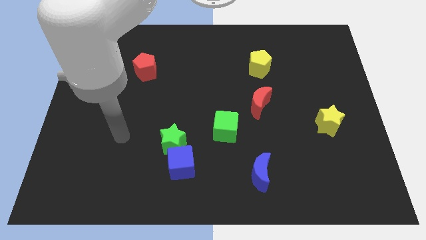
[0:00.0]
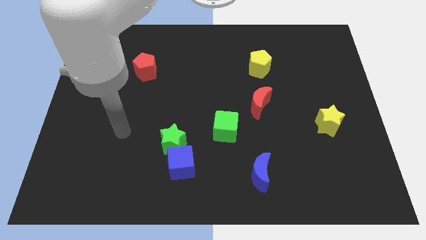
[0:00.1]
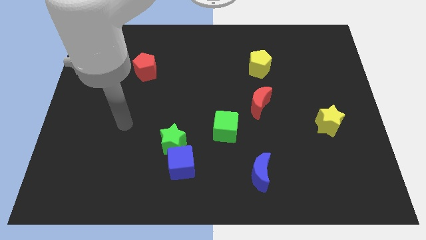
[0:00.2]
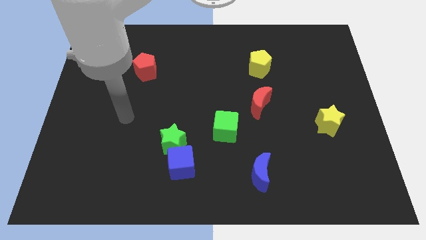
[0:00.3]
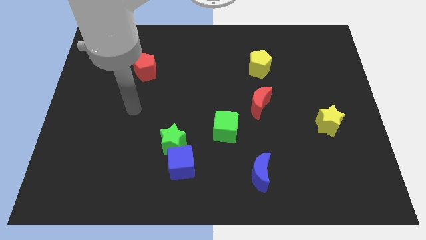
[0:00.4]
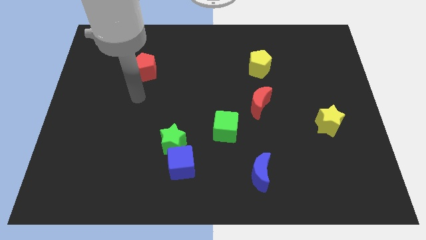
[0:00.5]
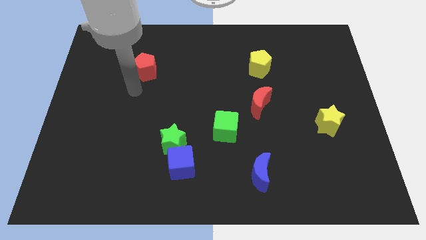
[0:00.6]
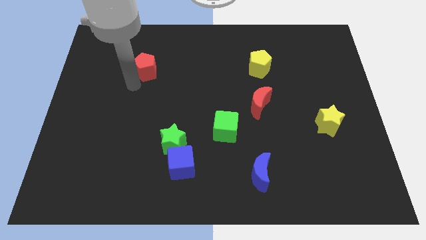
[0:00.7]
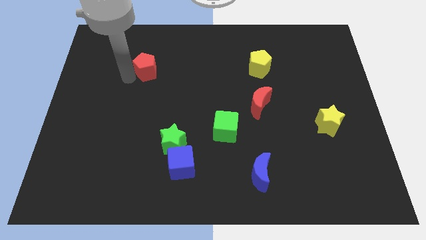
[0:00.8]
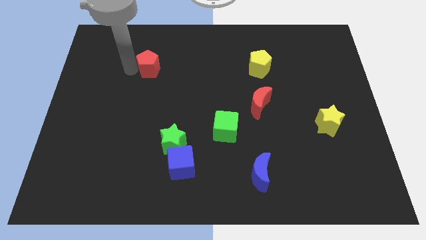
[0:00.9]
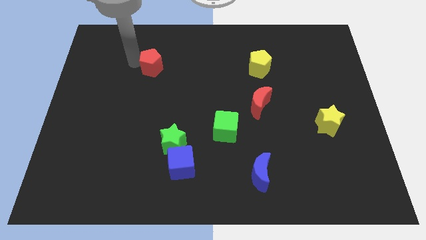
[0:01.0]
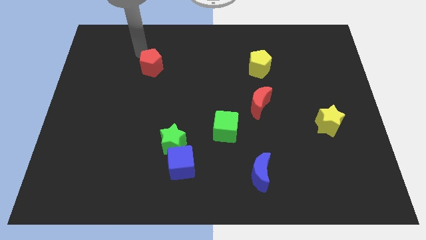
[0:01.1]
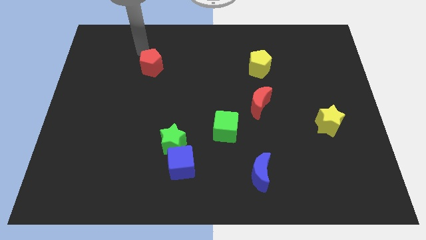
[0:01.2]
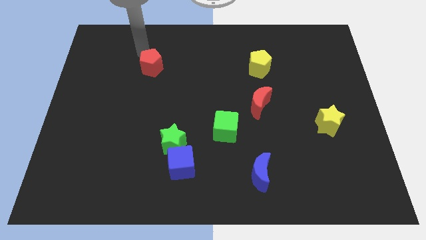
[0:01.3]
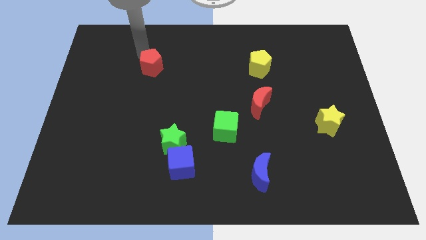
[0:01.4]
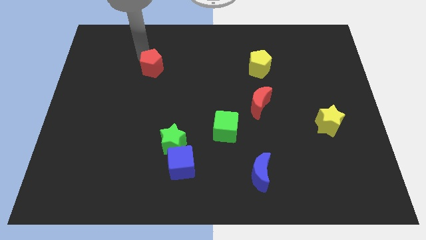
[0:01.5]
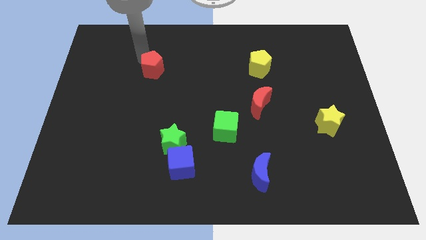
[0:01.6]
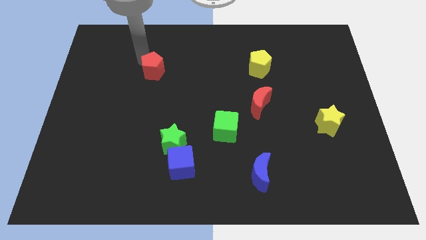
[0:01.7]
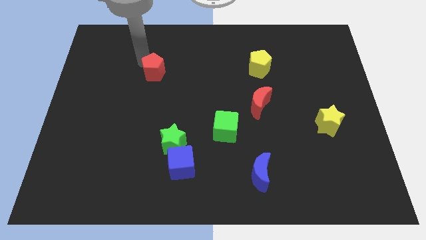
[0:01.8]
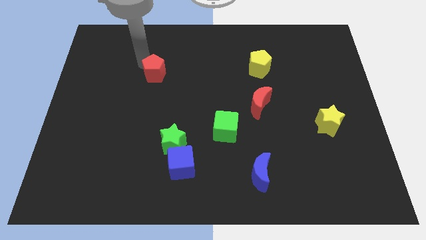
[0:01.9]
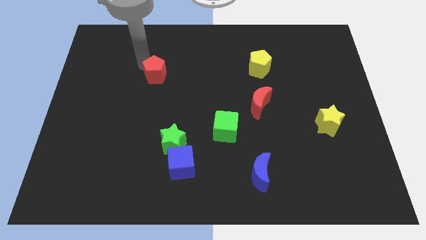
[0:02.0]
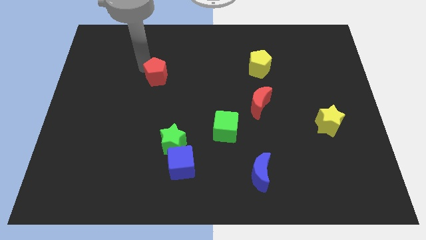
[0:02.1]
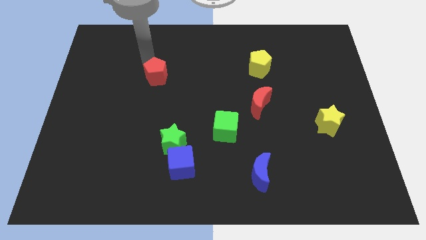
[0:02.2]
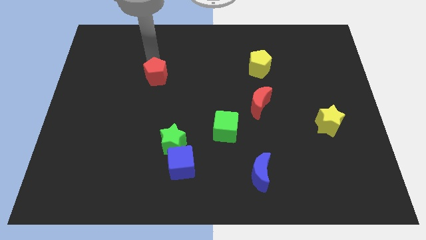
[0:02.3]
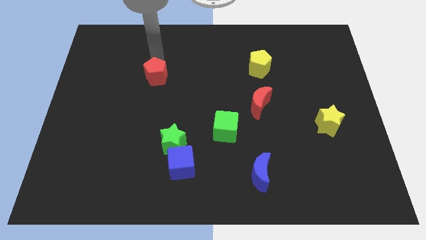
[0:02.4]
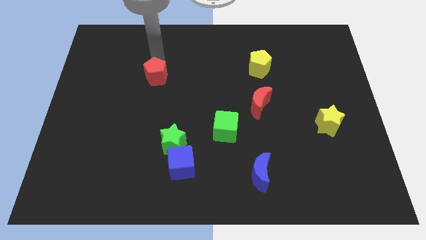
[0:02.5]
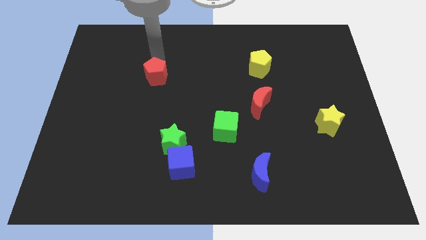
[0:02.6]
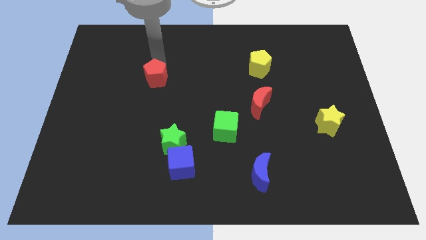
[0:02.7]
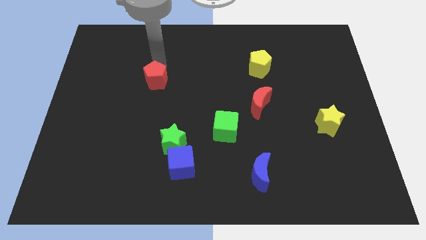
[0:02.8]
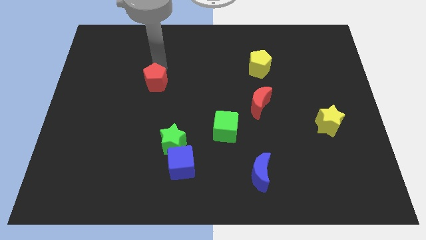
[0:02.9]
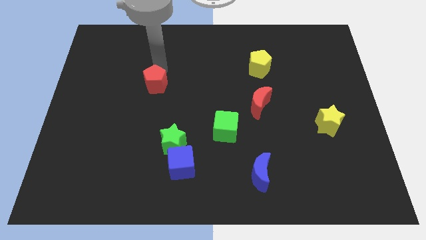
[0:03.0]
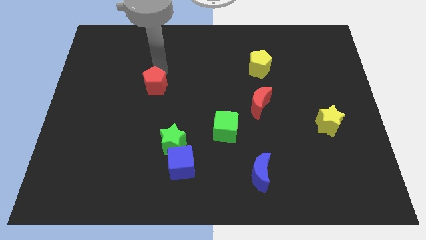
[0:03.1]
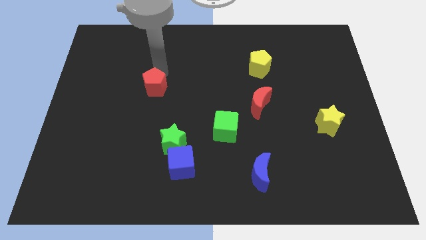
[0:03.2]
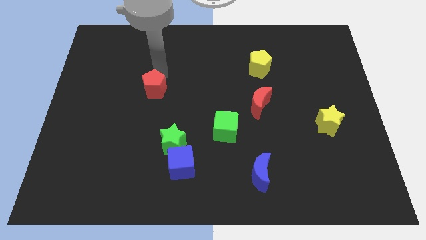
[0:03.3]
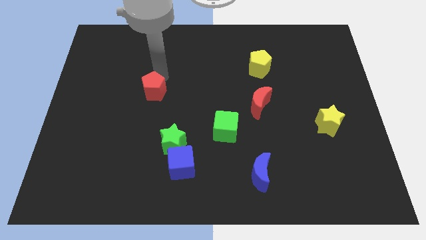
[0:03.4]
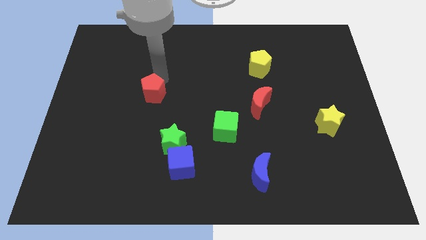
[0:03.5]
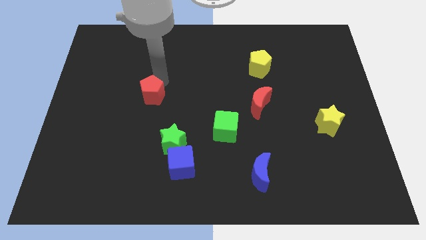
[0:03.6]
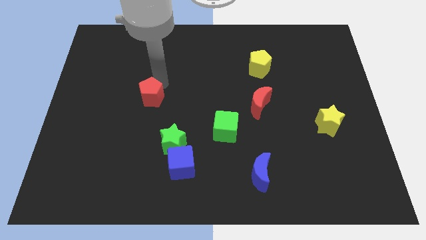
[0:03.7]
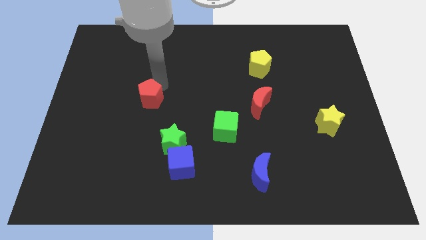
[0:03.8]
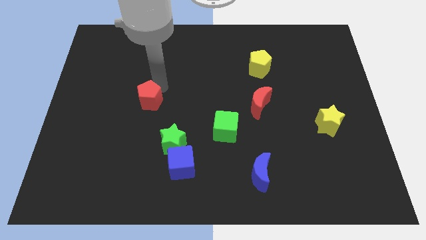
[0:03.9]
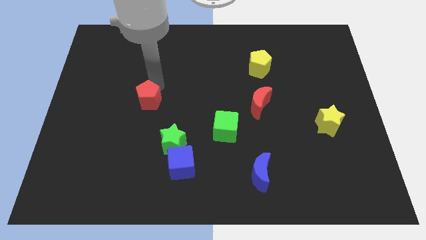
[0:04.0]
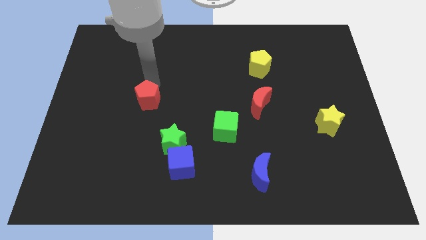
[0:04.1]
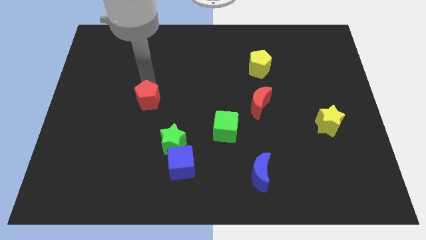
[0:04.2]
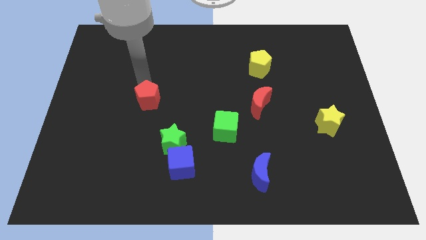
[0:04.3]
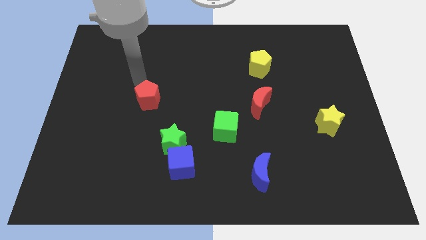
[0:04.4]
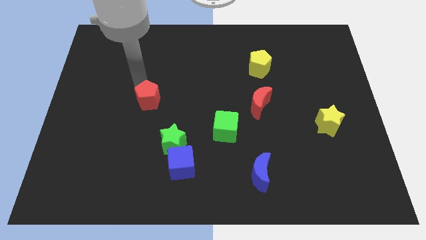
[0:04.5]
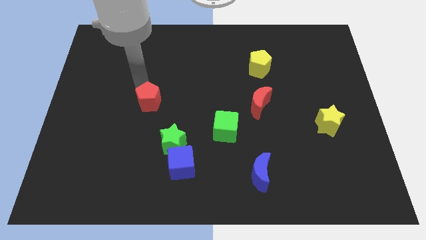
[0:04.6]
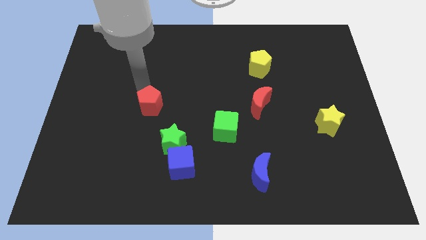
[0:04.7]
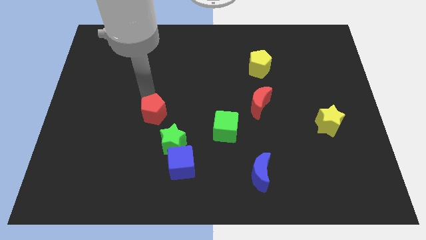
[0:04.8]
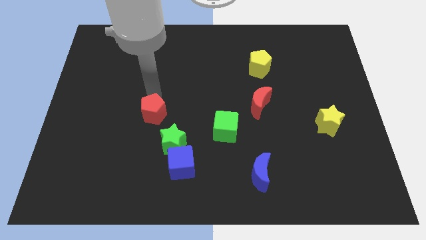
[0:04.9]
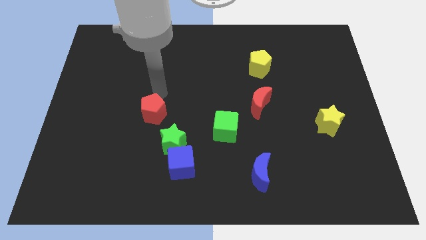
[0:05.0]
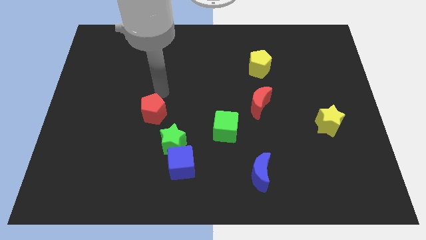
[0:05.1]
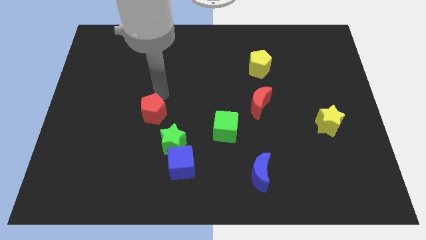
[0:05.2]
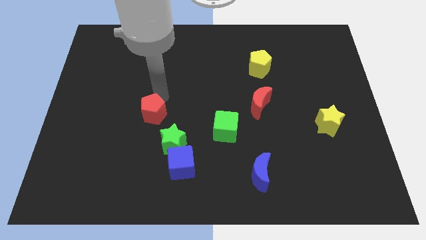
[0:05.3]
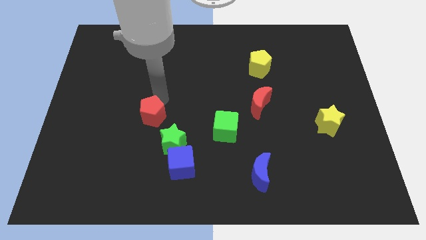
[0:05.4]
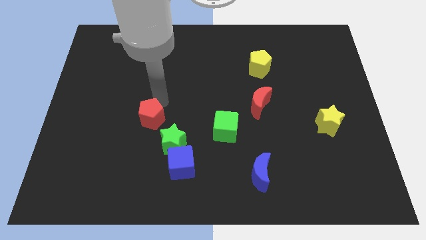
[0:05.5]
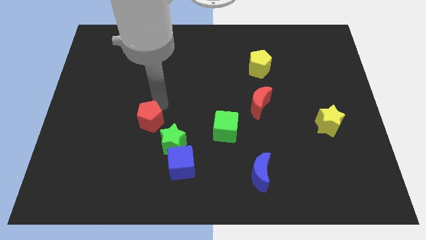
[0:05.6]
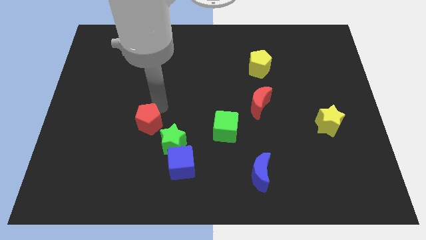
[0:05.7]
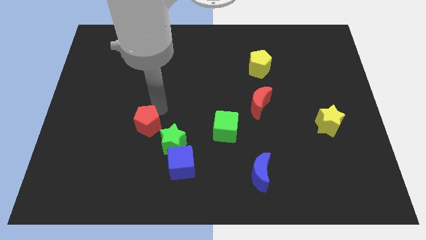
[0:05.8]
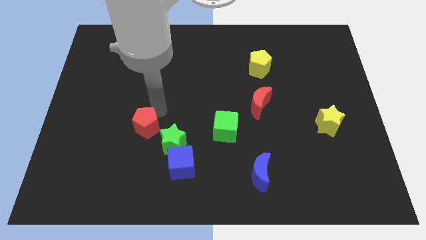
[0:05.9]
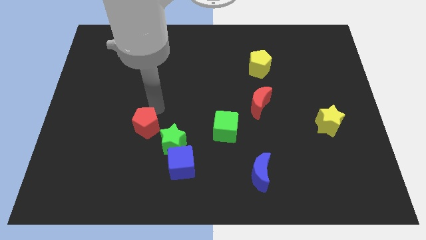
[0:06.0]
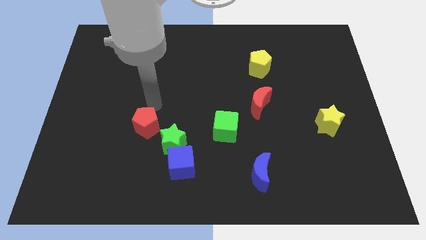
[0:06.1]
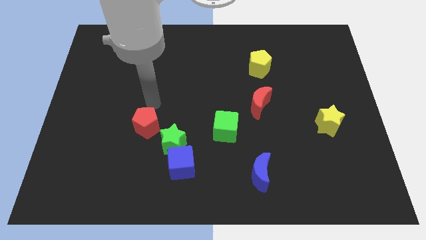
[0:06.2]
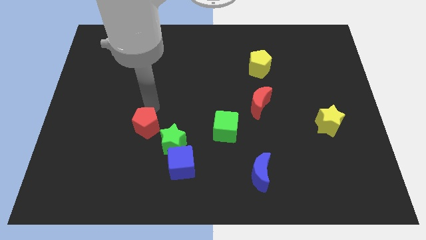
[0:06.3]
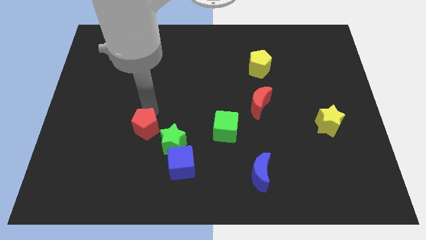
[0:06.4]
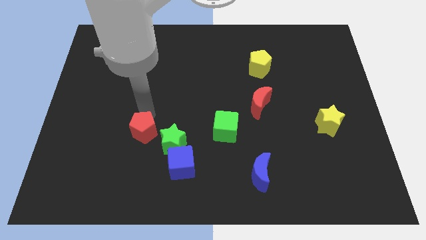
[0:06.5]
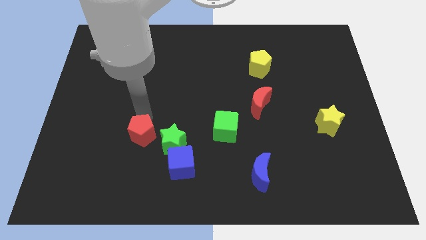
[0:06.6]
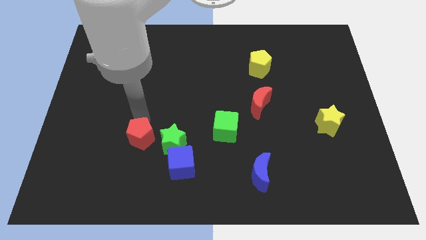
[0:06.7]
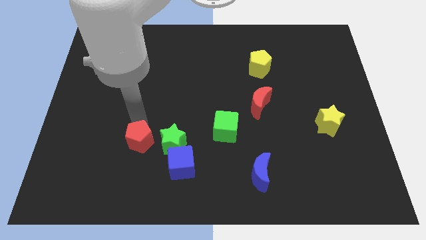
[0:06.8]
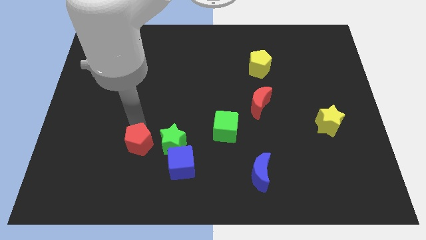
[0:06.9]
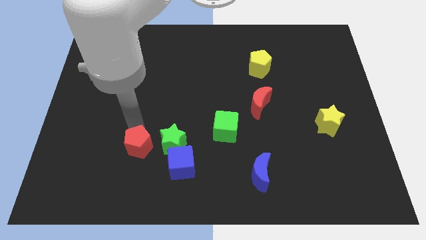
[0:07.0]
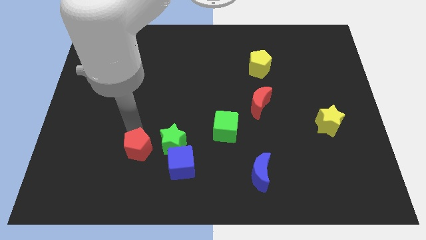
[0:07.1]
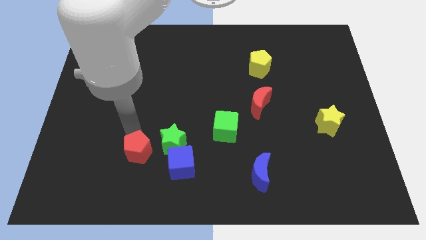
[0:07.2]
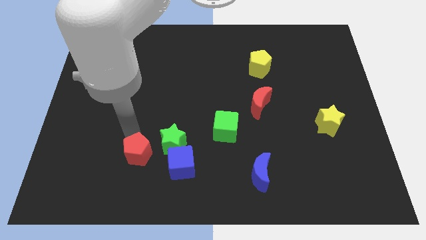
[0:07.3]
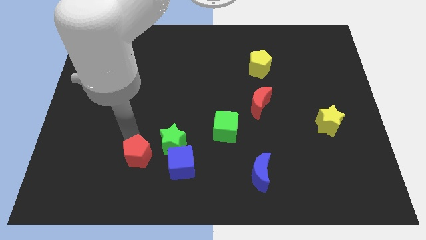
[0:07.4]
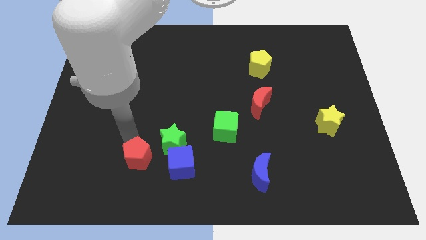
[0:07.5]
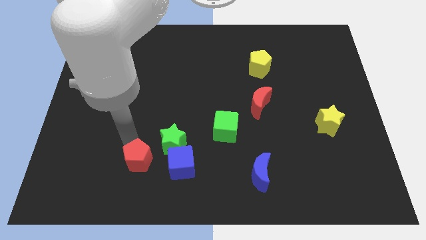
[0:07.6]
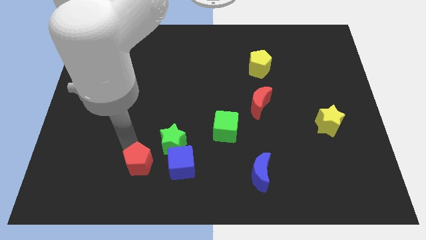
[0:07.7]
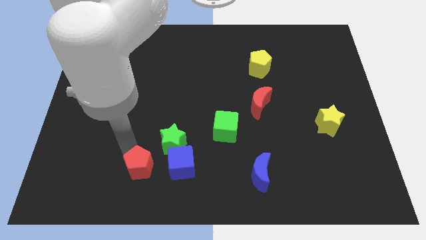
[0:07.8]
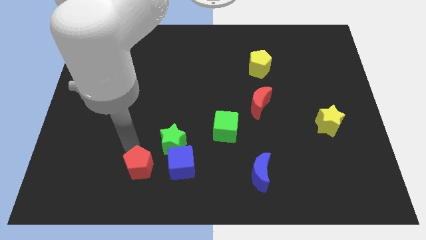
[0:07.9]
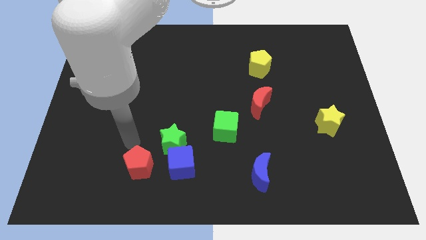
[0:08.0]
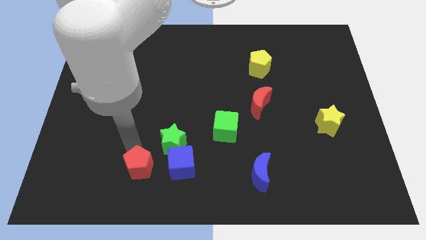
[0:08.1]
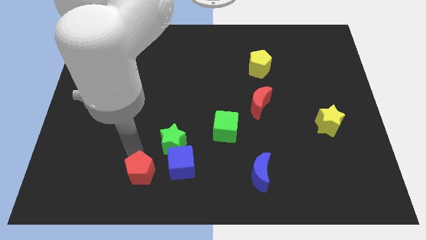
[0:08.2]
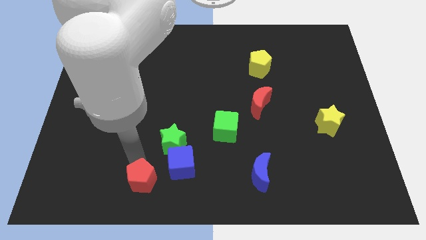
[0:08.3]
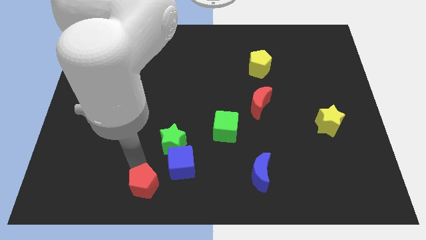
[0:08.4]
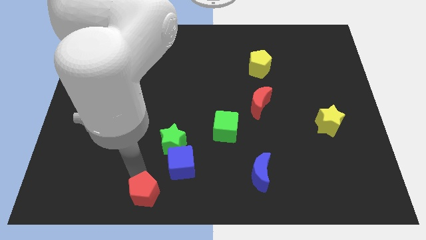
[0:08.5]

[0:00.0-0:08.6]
move the red pentagon to the bottom side
